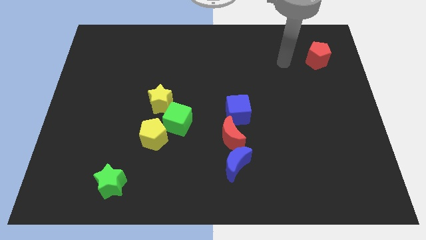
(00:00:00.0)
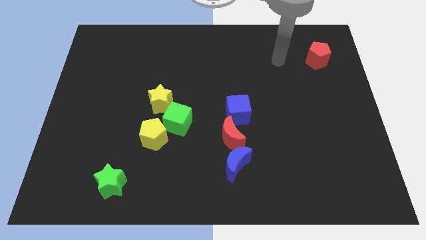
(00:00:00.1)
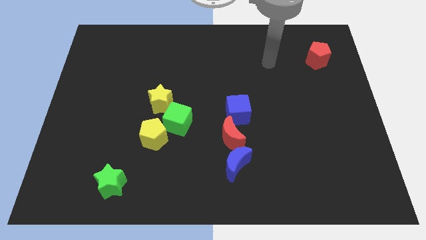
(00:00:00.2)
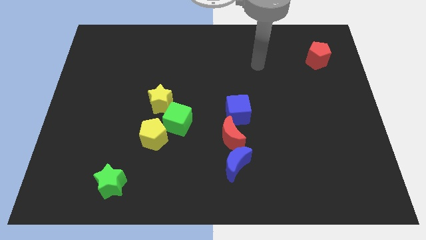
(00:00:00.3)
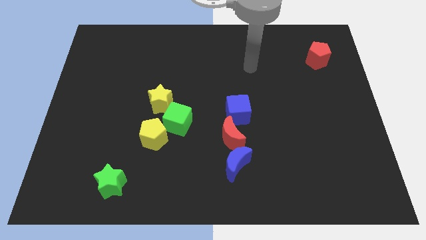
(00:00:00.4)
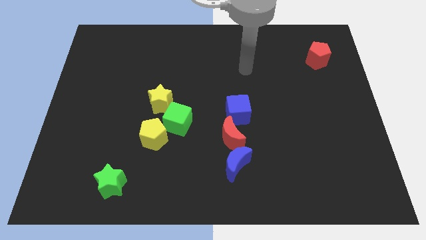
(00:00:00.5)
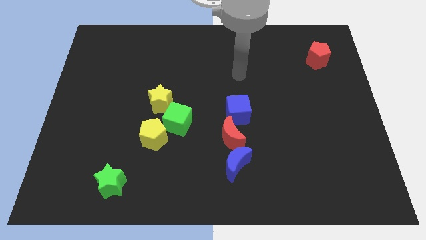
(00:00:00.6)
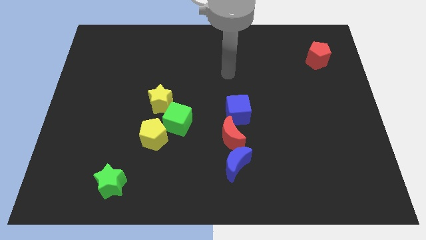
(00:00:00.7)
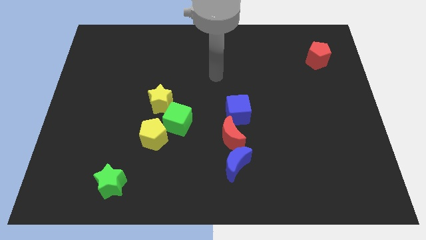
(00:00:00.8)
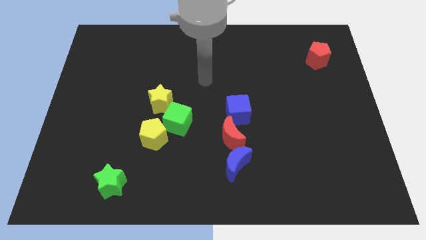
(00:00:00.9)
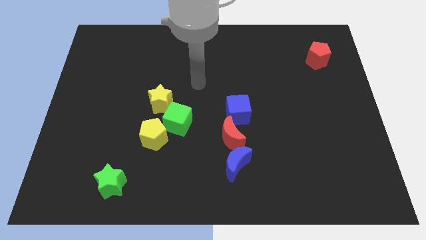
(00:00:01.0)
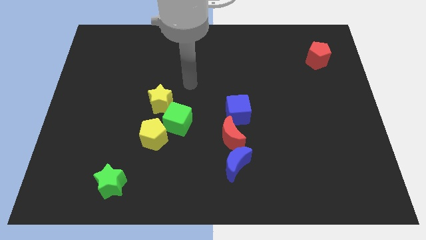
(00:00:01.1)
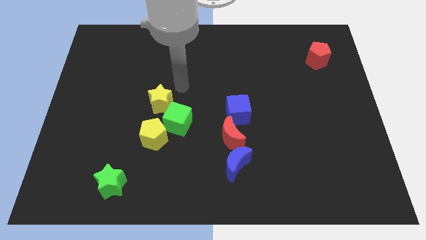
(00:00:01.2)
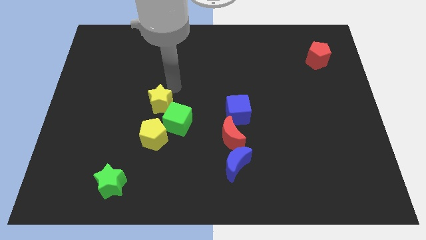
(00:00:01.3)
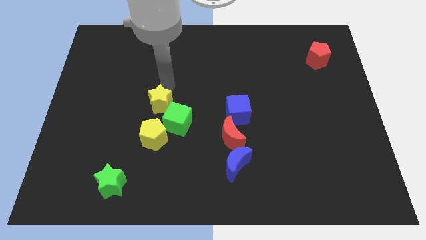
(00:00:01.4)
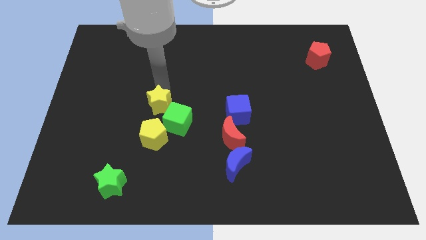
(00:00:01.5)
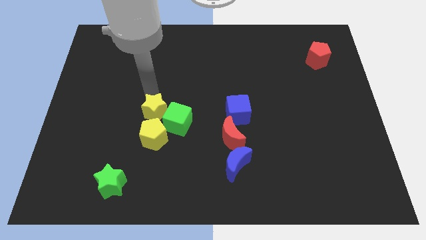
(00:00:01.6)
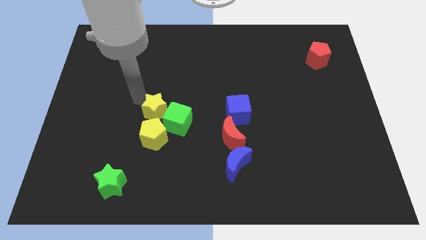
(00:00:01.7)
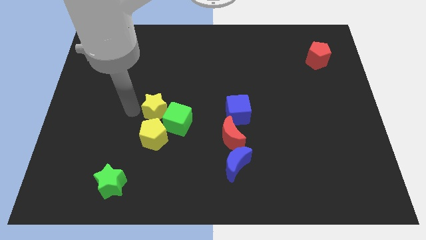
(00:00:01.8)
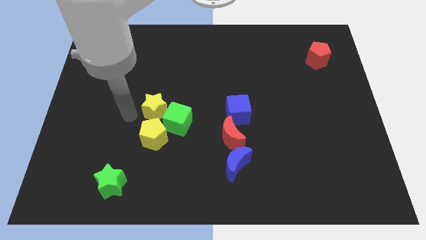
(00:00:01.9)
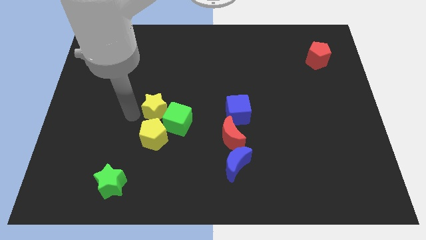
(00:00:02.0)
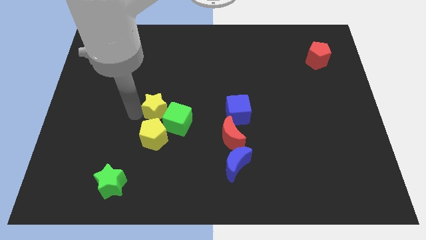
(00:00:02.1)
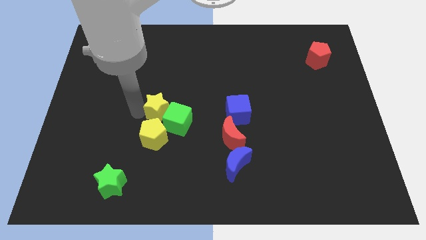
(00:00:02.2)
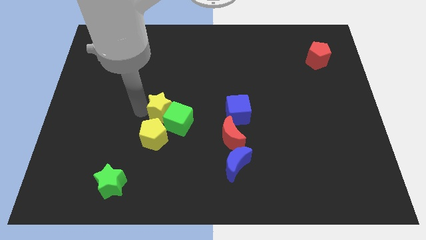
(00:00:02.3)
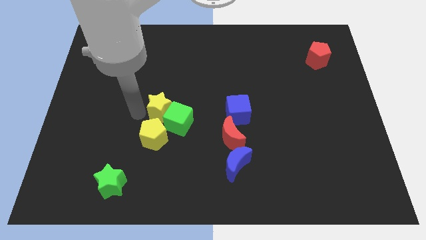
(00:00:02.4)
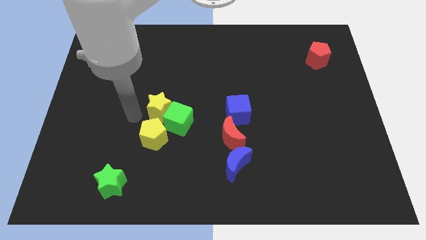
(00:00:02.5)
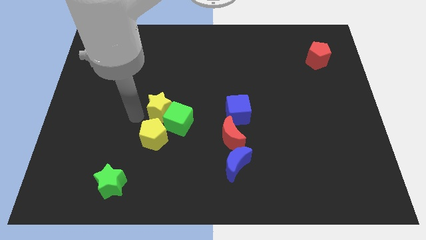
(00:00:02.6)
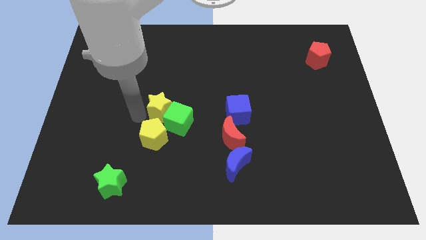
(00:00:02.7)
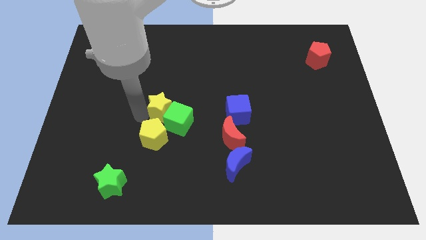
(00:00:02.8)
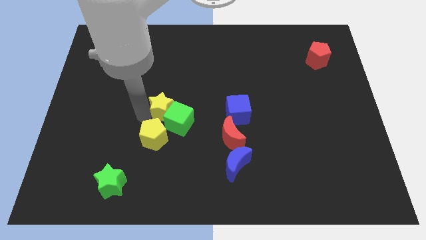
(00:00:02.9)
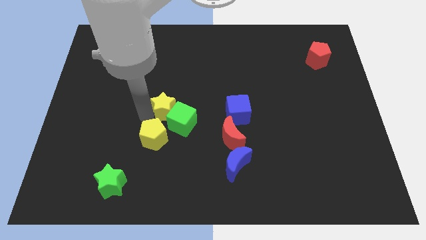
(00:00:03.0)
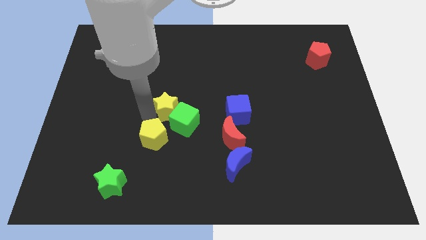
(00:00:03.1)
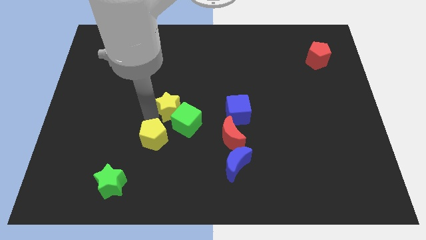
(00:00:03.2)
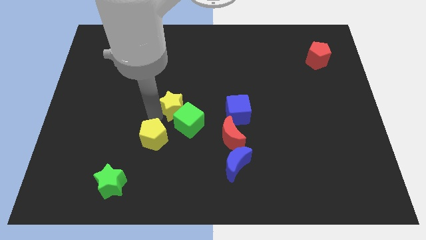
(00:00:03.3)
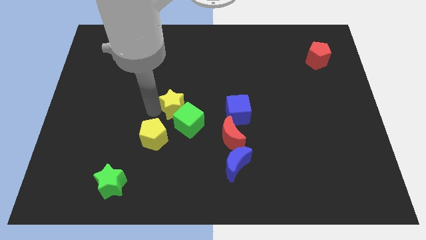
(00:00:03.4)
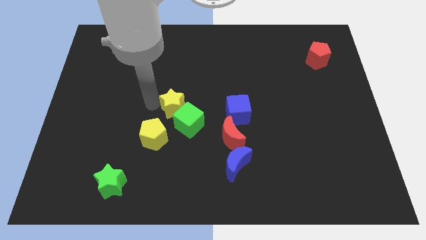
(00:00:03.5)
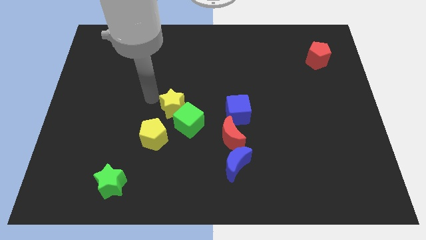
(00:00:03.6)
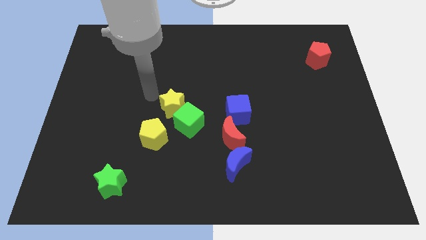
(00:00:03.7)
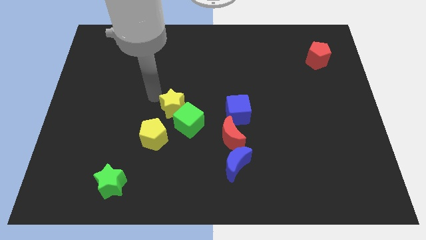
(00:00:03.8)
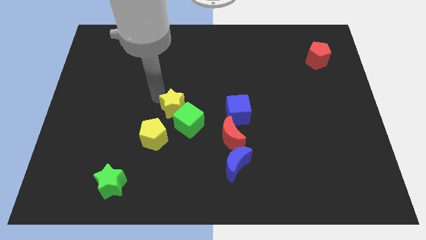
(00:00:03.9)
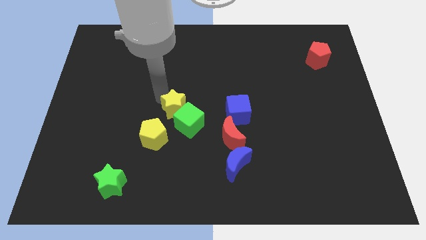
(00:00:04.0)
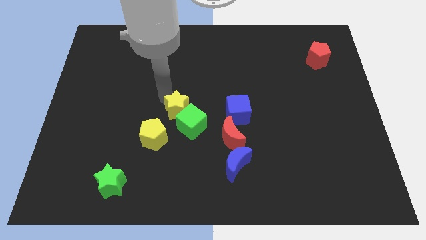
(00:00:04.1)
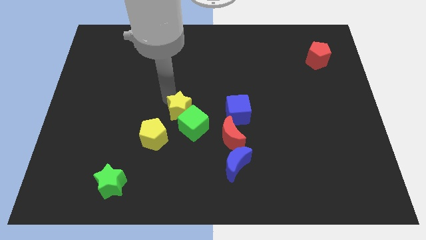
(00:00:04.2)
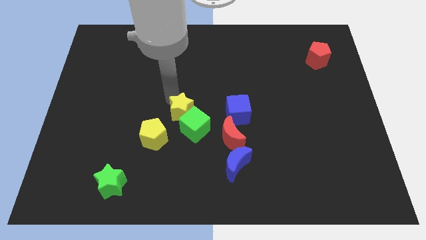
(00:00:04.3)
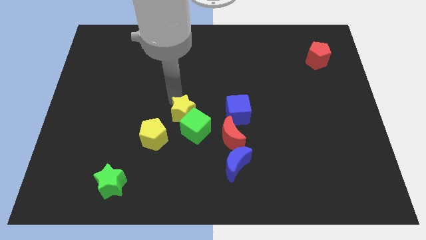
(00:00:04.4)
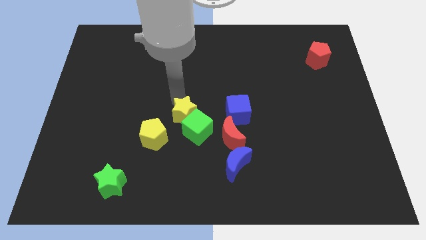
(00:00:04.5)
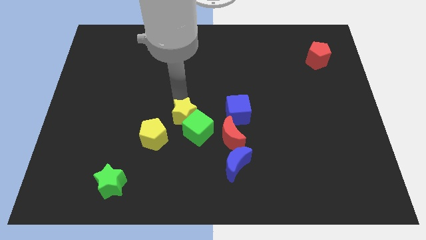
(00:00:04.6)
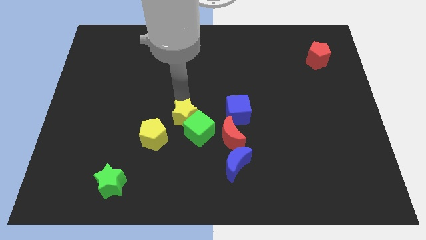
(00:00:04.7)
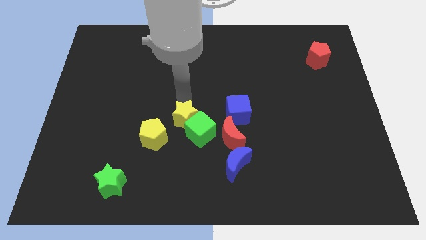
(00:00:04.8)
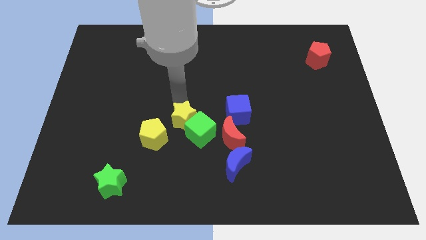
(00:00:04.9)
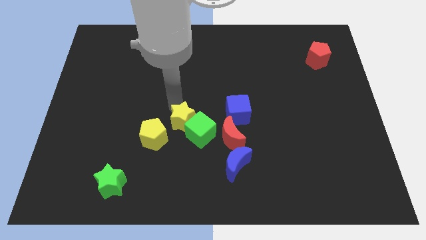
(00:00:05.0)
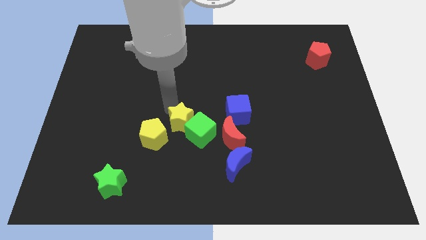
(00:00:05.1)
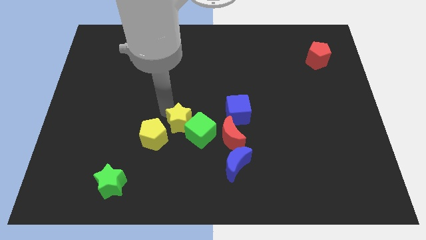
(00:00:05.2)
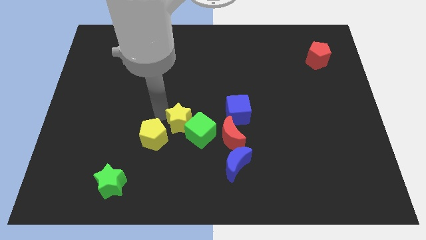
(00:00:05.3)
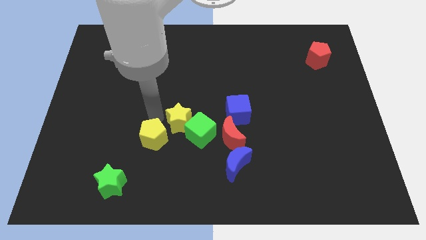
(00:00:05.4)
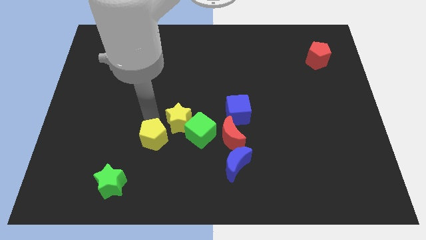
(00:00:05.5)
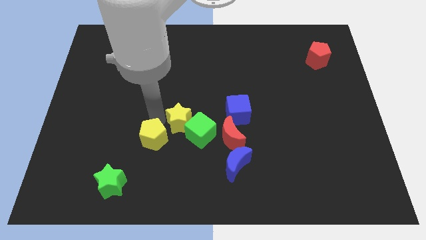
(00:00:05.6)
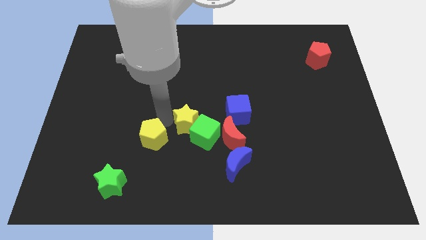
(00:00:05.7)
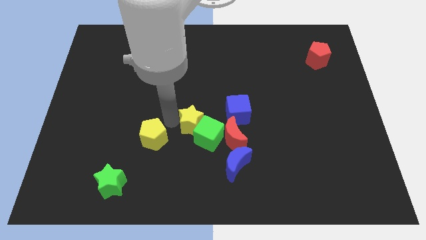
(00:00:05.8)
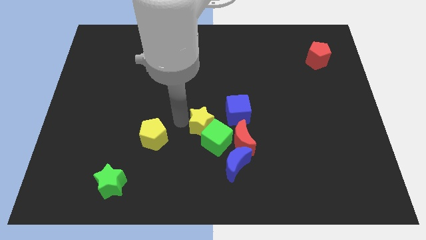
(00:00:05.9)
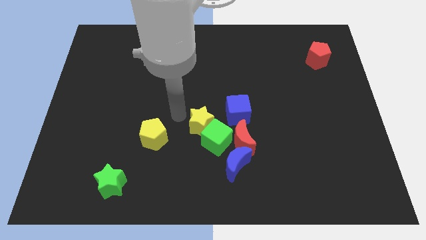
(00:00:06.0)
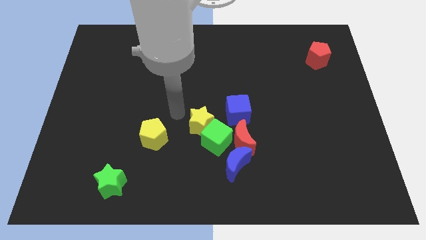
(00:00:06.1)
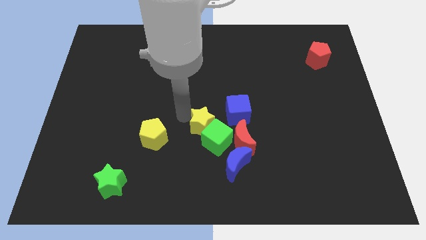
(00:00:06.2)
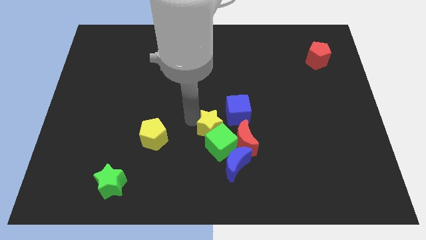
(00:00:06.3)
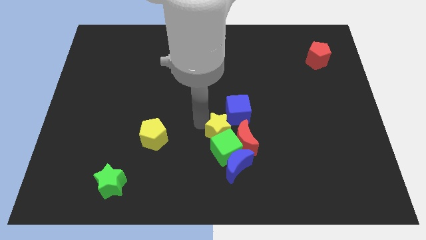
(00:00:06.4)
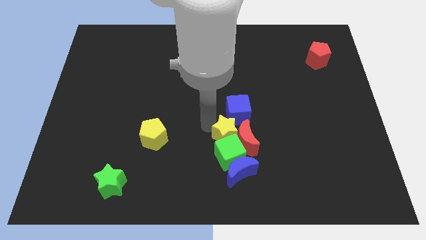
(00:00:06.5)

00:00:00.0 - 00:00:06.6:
move the yellow star towards the red moon

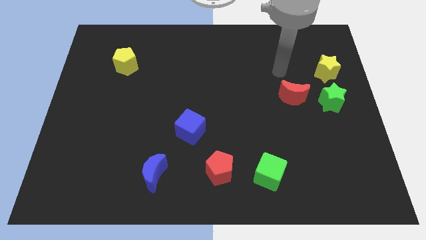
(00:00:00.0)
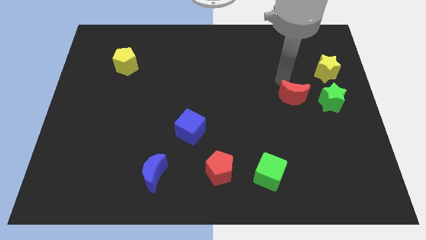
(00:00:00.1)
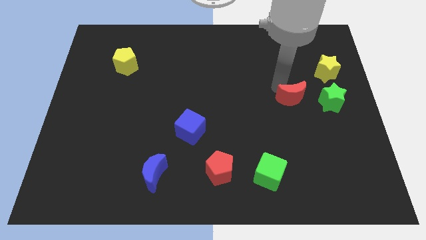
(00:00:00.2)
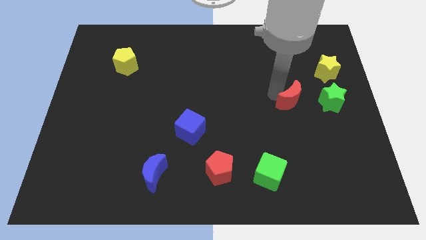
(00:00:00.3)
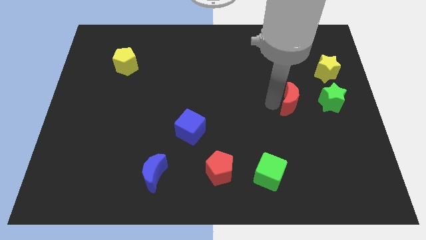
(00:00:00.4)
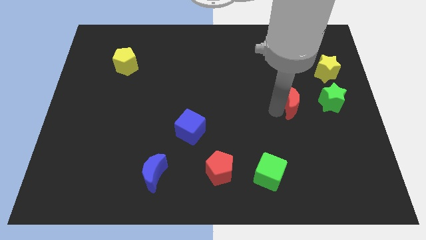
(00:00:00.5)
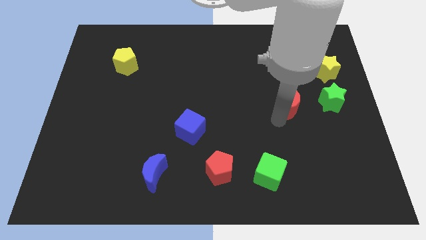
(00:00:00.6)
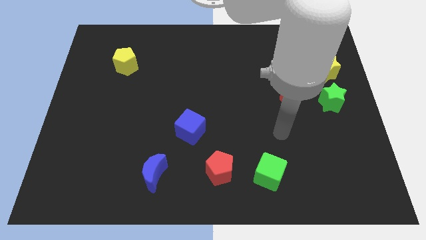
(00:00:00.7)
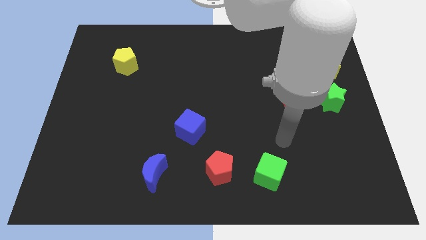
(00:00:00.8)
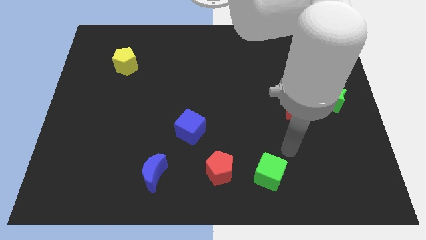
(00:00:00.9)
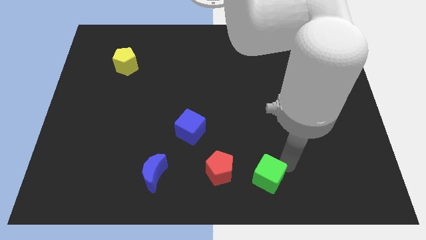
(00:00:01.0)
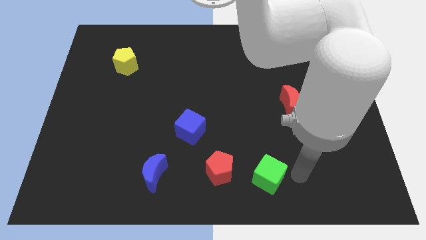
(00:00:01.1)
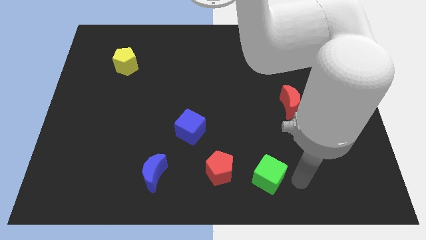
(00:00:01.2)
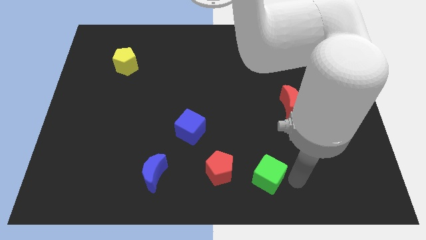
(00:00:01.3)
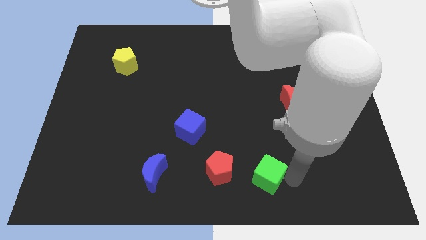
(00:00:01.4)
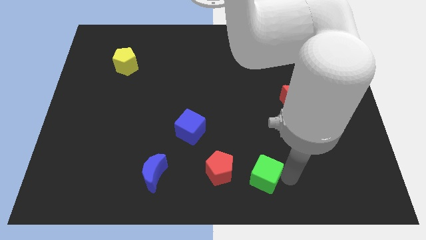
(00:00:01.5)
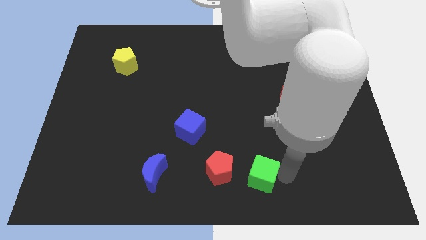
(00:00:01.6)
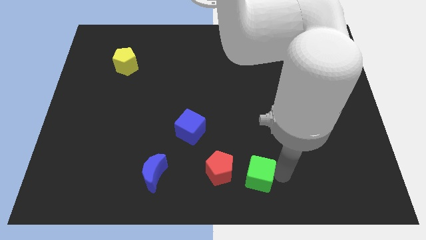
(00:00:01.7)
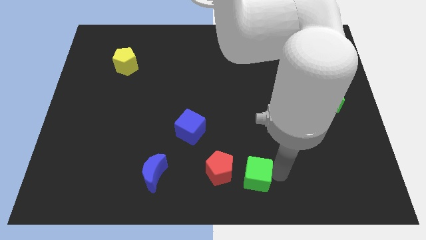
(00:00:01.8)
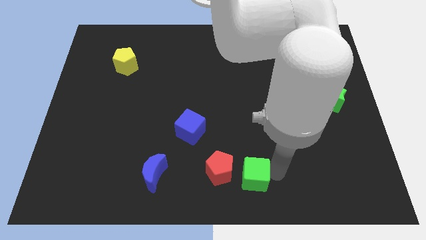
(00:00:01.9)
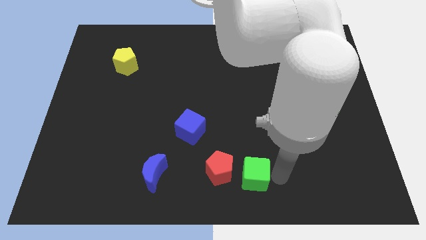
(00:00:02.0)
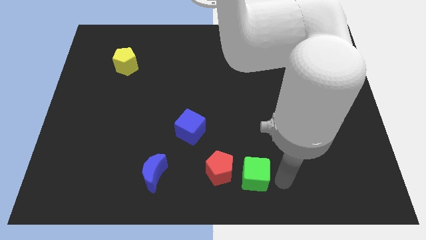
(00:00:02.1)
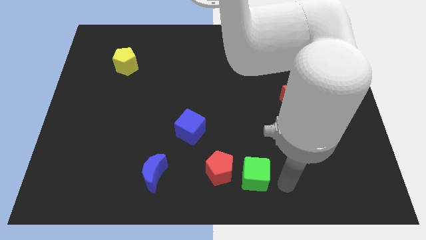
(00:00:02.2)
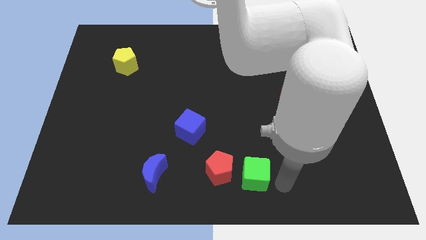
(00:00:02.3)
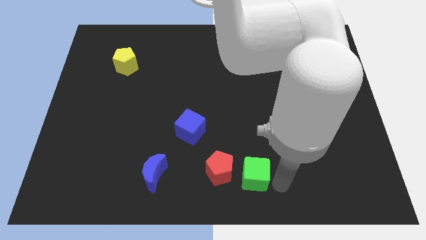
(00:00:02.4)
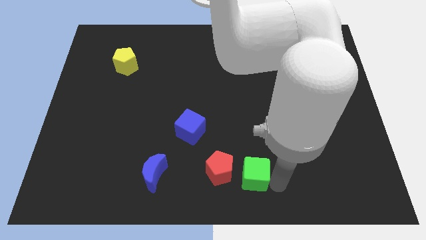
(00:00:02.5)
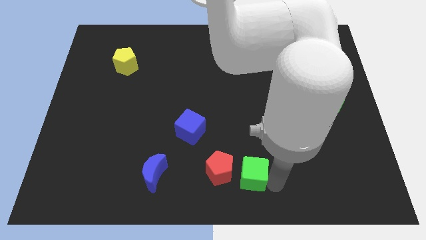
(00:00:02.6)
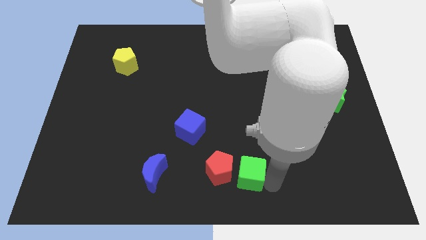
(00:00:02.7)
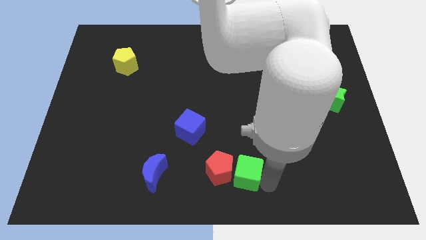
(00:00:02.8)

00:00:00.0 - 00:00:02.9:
push the green cube next to the red pentagon
